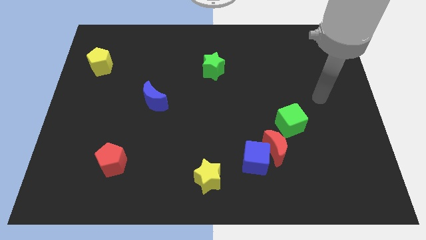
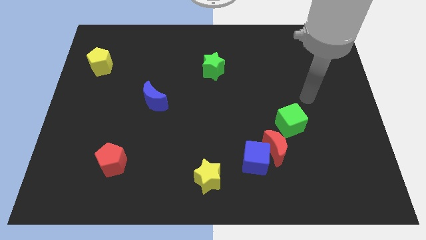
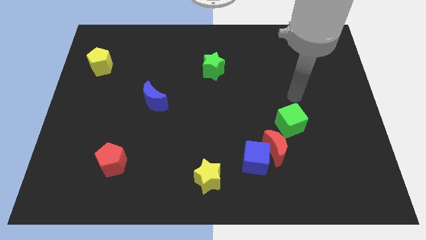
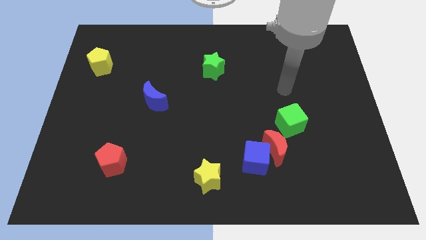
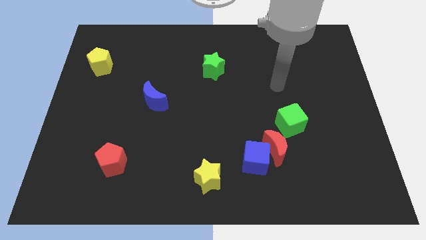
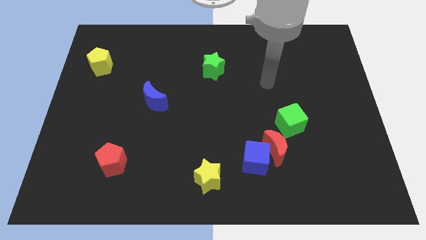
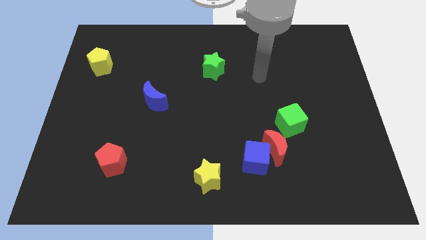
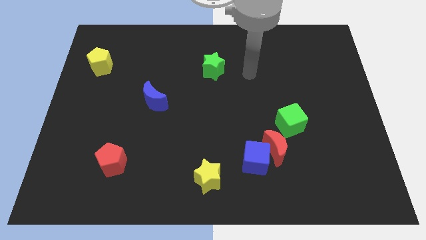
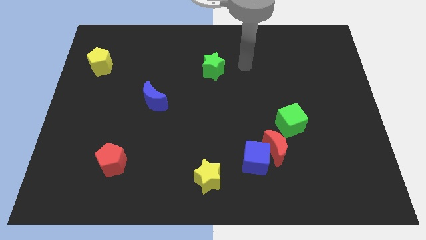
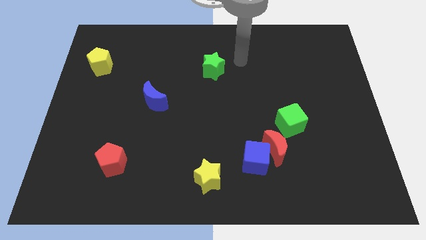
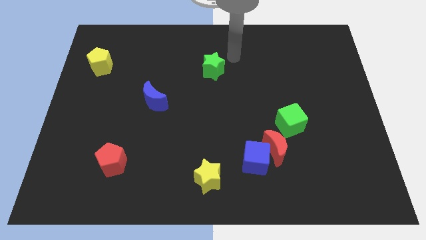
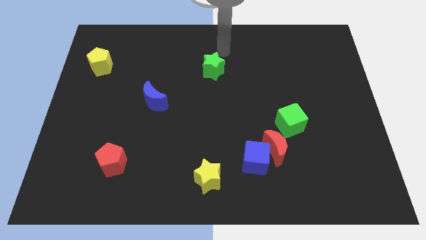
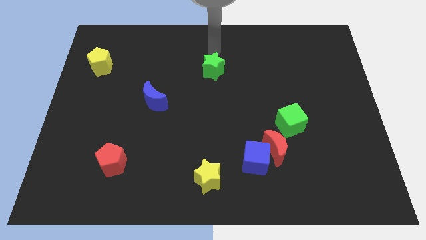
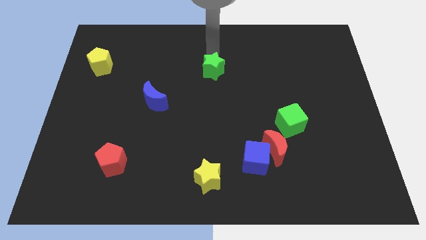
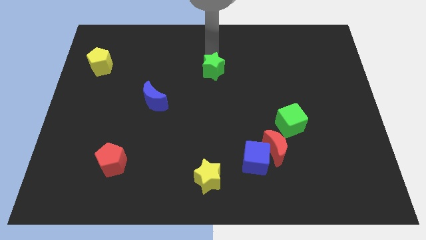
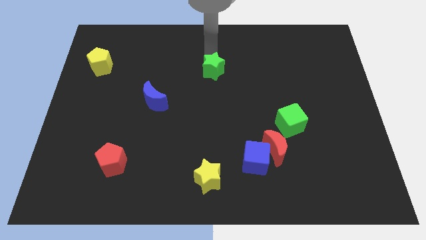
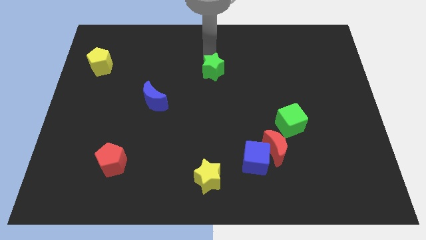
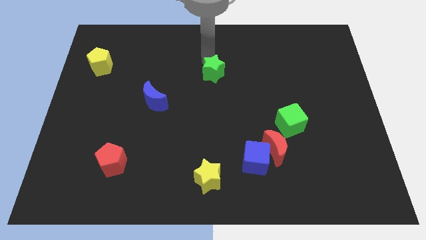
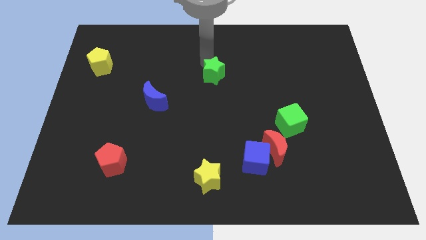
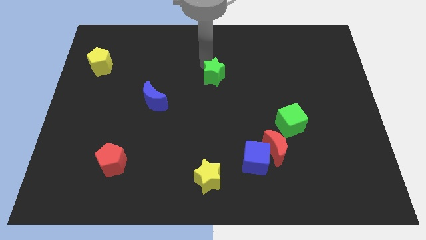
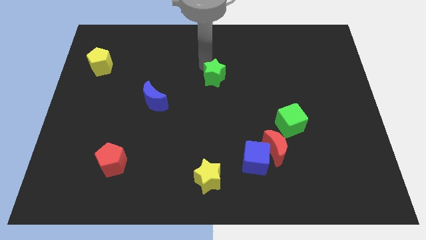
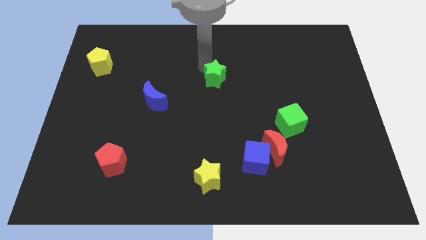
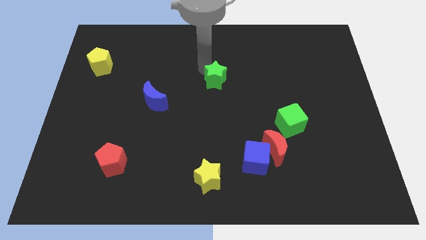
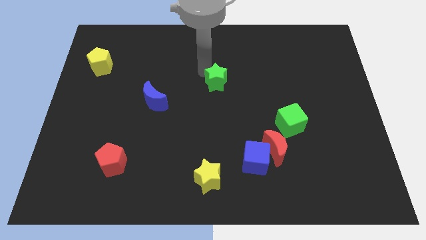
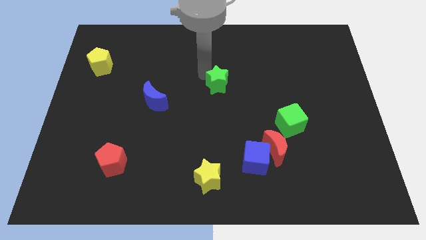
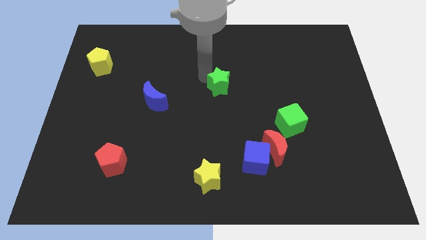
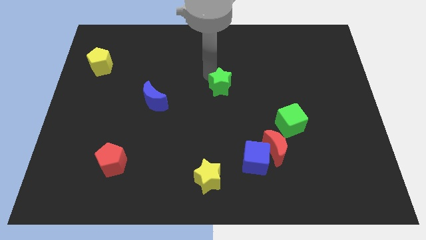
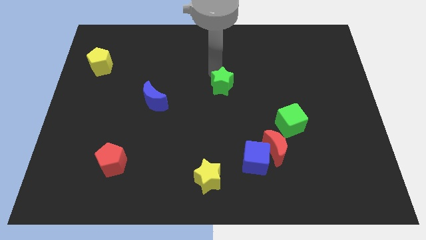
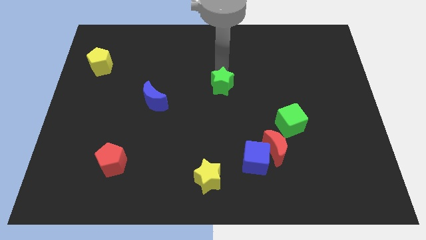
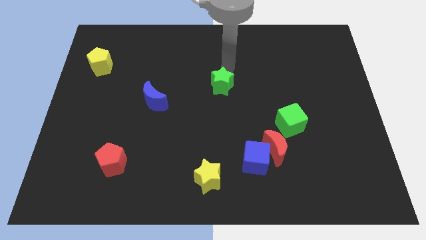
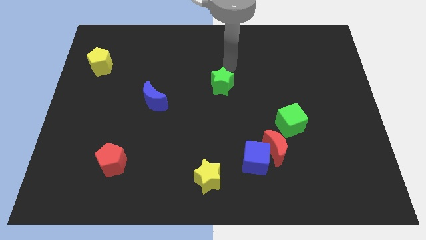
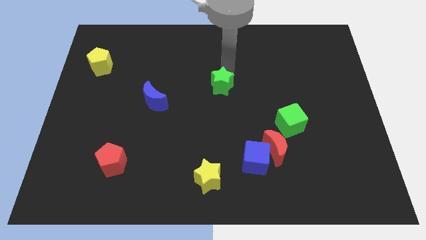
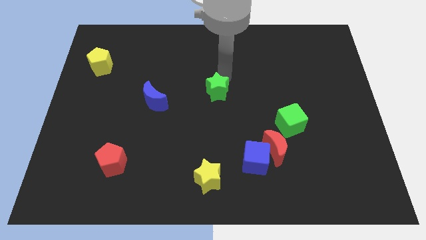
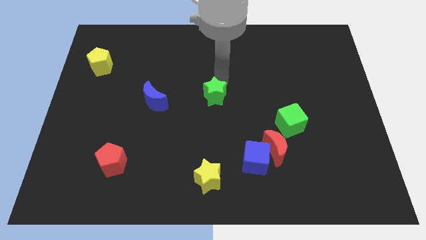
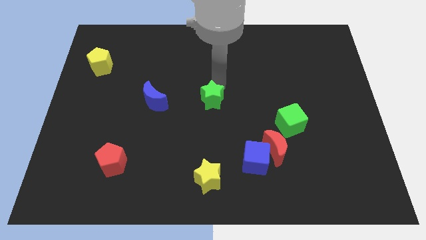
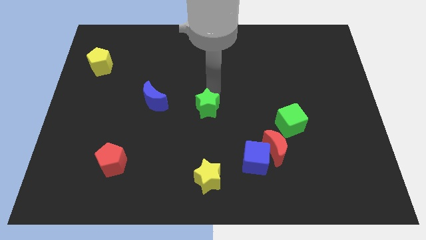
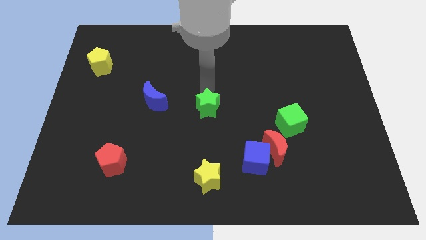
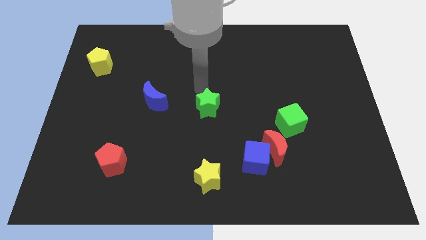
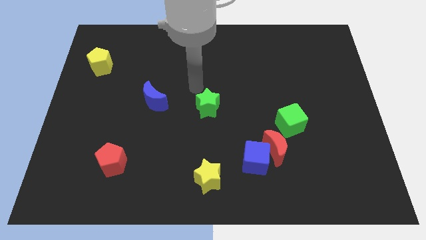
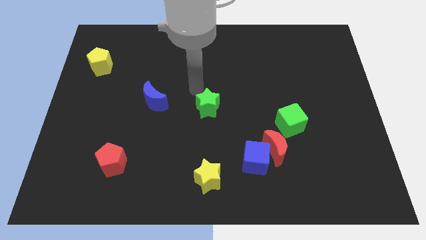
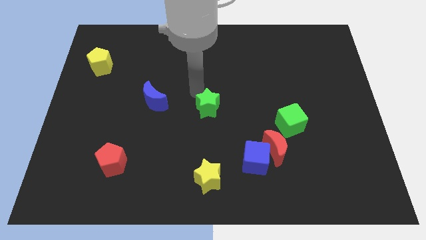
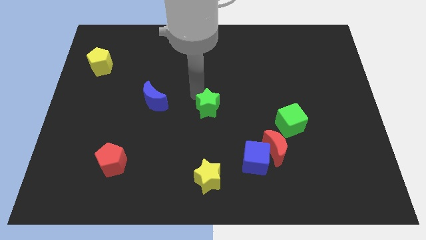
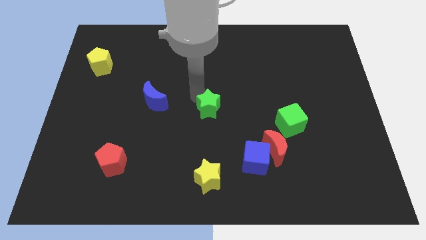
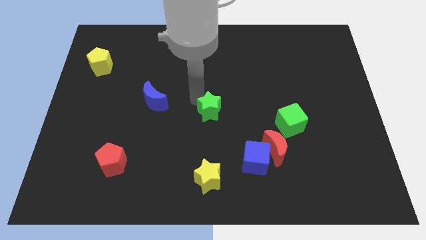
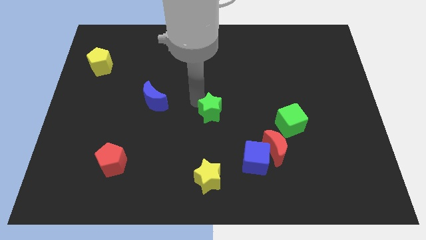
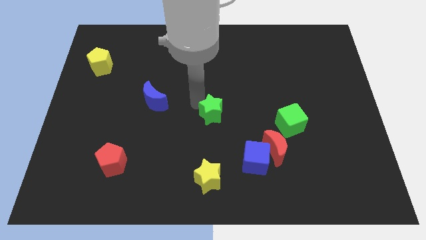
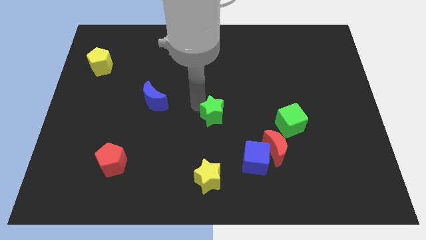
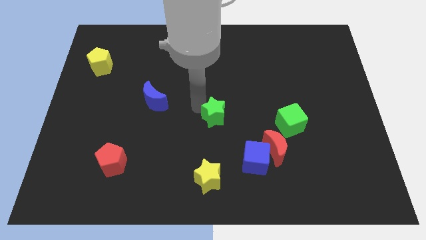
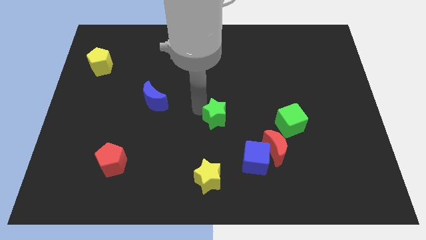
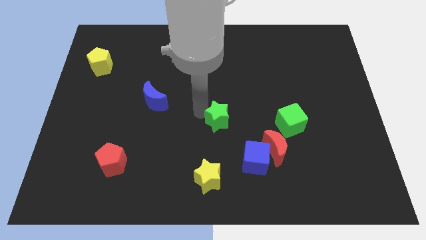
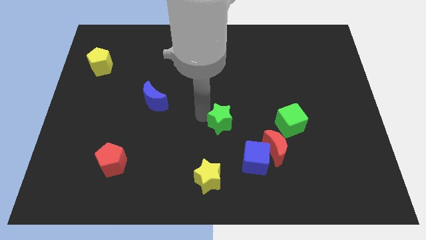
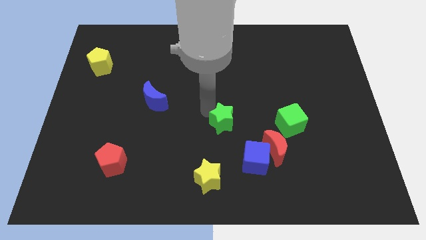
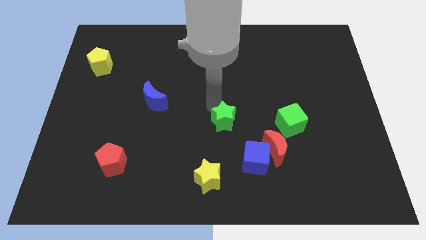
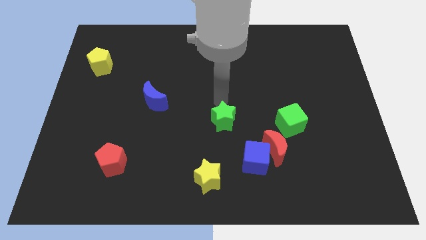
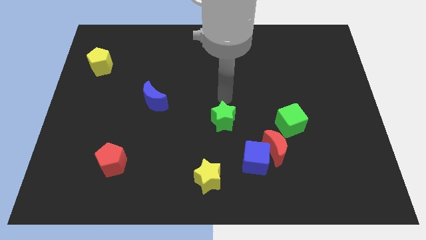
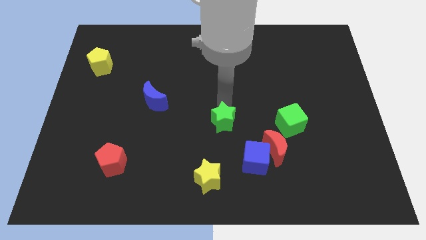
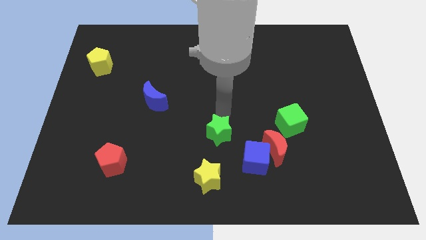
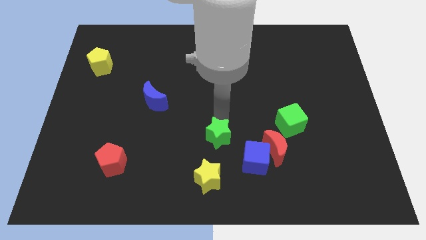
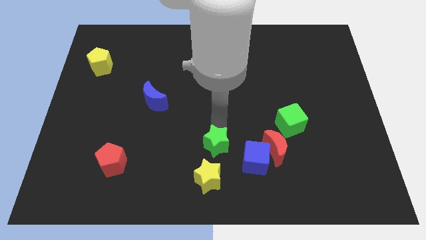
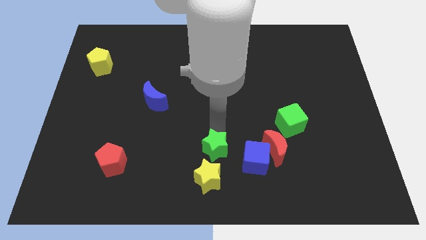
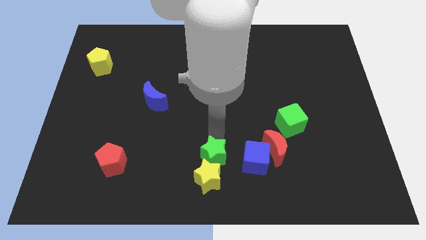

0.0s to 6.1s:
put the green star next to the yellow star
